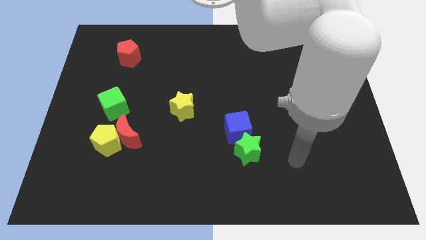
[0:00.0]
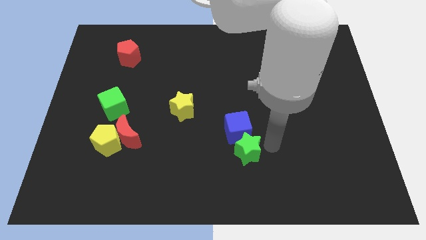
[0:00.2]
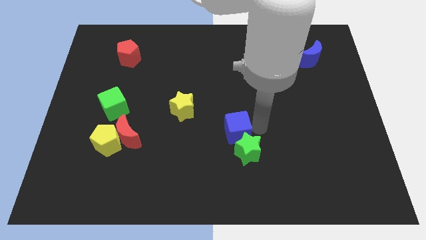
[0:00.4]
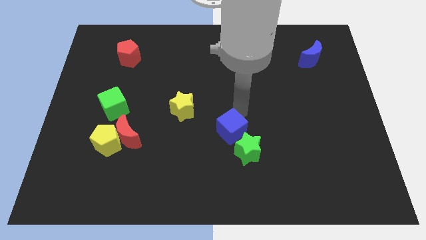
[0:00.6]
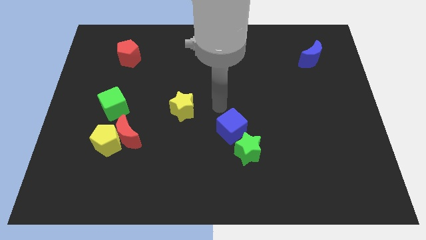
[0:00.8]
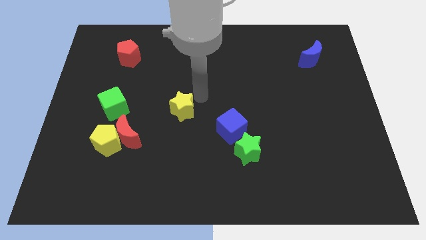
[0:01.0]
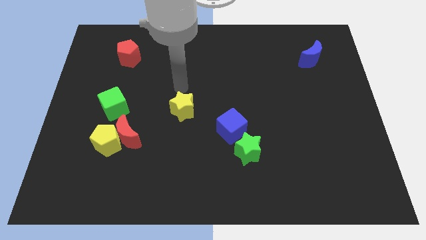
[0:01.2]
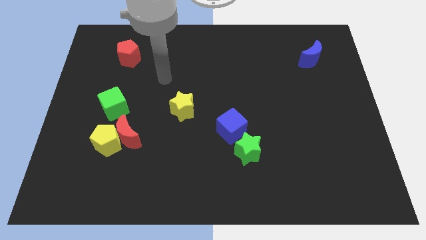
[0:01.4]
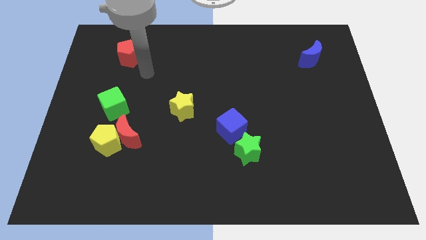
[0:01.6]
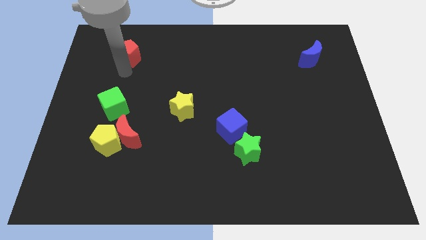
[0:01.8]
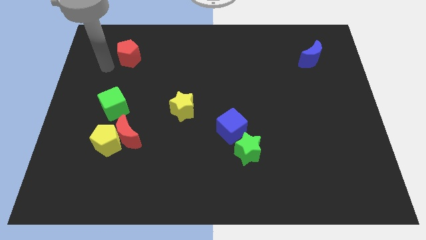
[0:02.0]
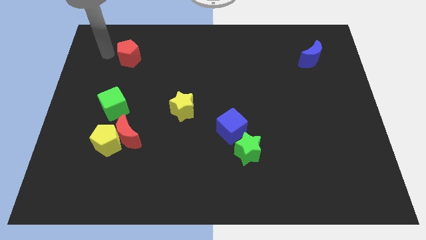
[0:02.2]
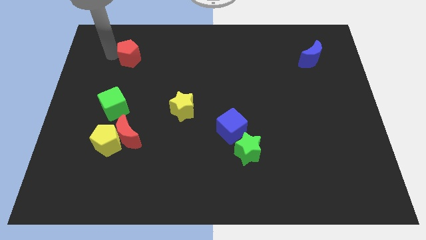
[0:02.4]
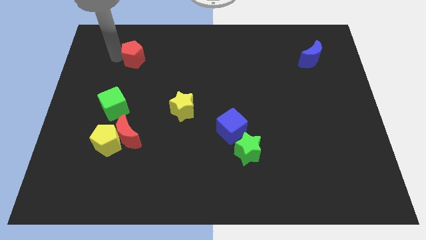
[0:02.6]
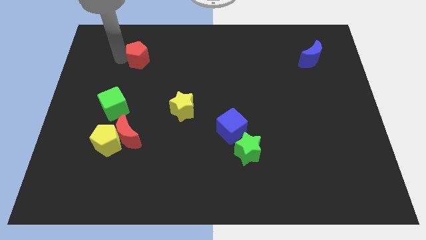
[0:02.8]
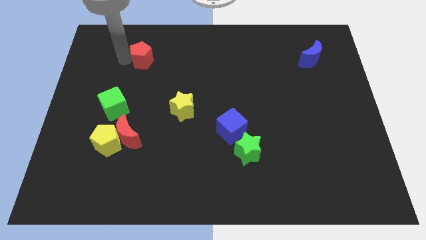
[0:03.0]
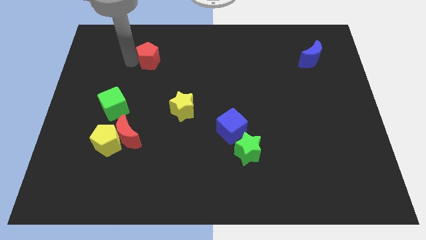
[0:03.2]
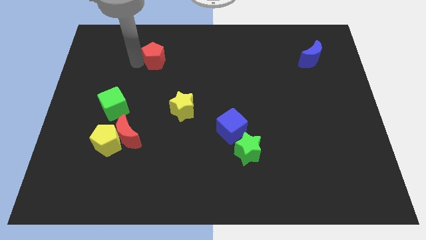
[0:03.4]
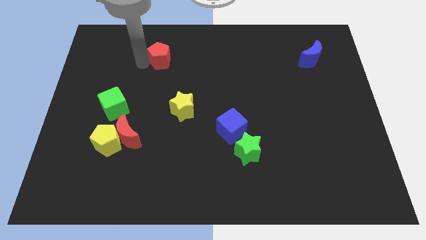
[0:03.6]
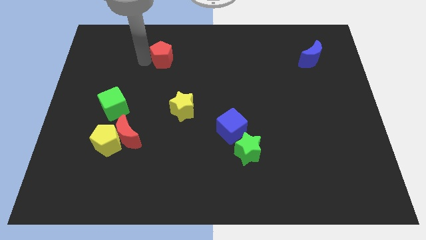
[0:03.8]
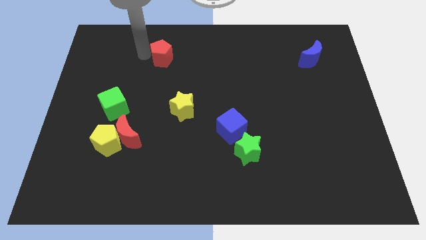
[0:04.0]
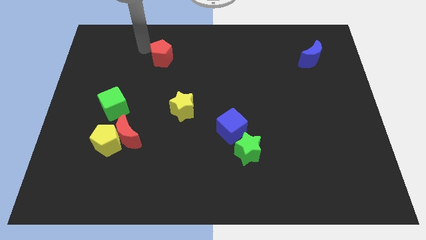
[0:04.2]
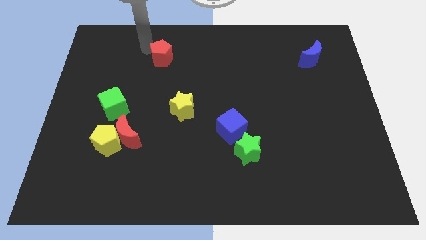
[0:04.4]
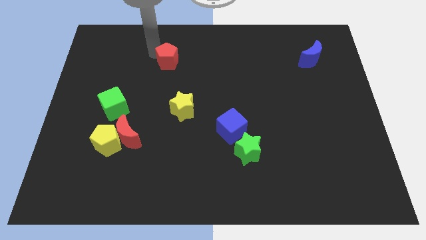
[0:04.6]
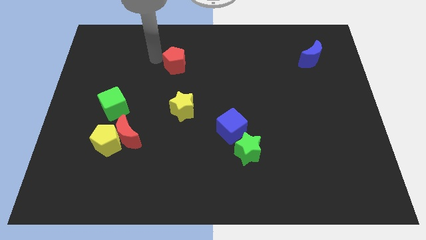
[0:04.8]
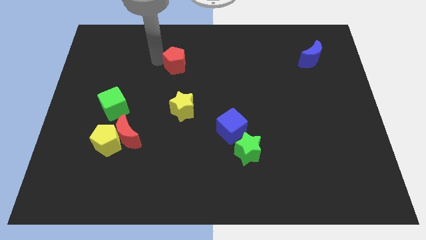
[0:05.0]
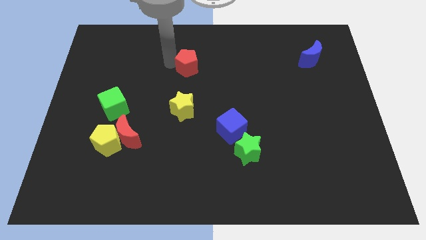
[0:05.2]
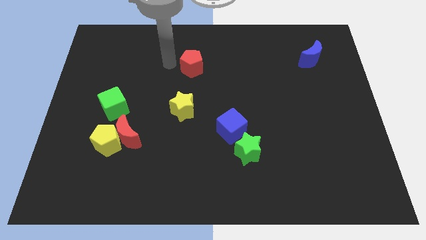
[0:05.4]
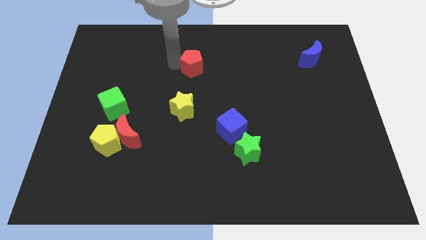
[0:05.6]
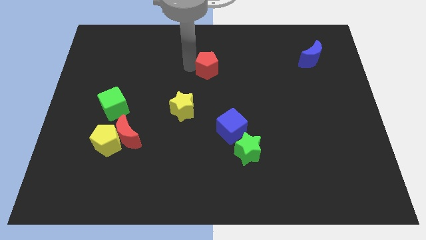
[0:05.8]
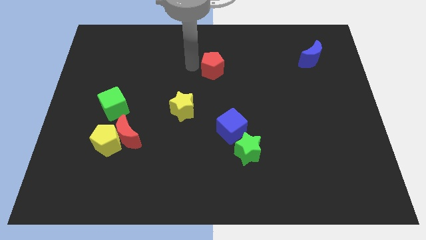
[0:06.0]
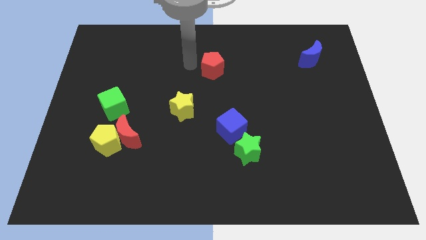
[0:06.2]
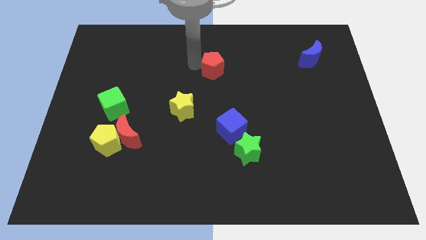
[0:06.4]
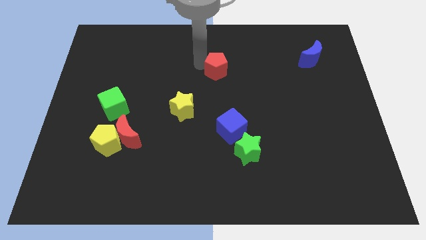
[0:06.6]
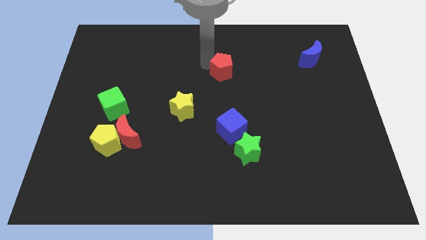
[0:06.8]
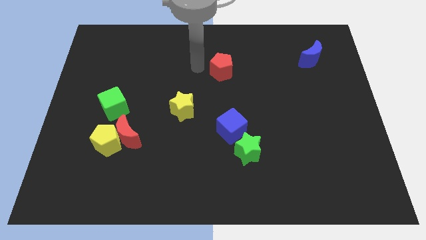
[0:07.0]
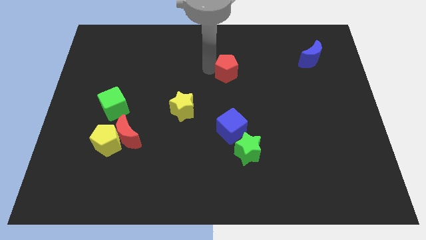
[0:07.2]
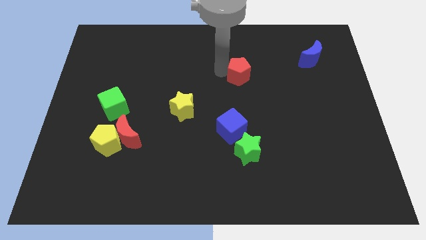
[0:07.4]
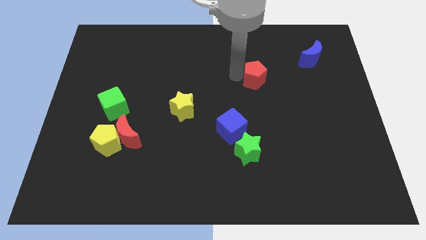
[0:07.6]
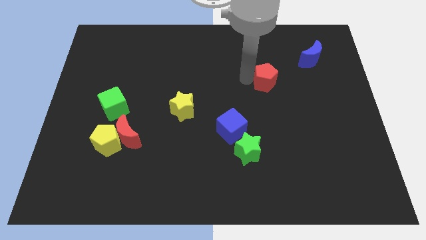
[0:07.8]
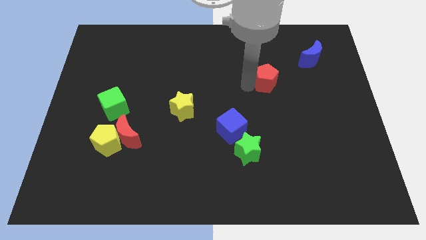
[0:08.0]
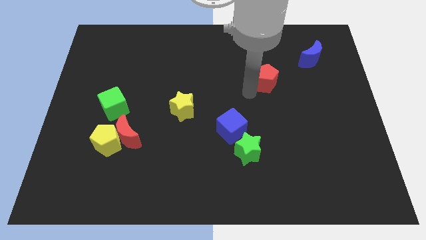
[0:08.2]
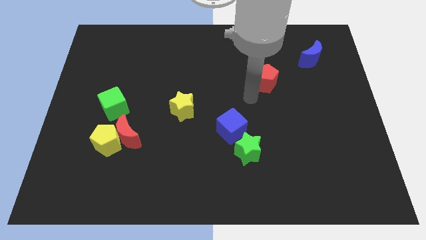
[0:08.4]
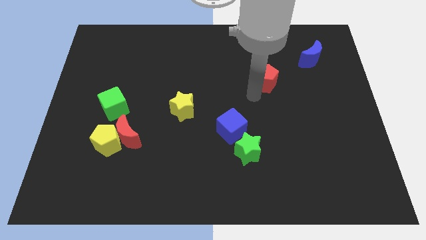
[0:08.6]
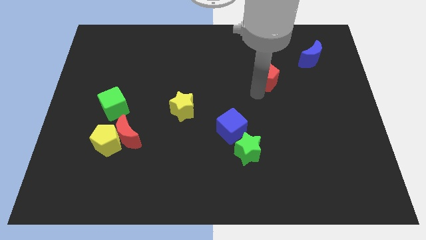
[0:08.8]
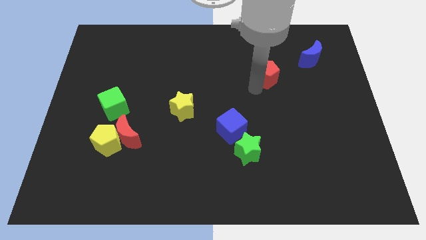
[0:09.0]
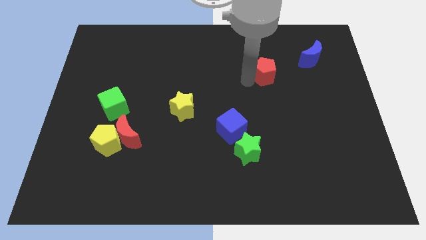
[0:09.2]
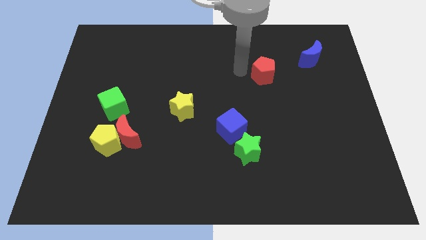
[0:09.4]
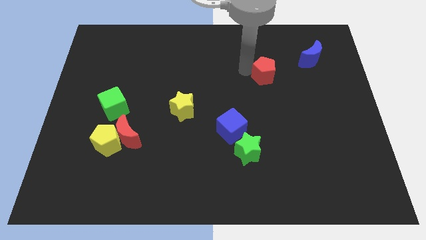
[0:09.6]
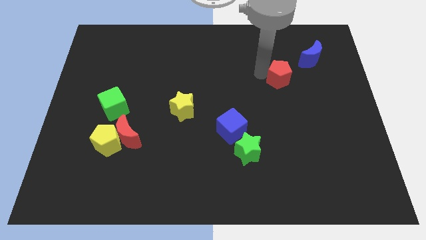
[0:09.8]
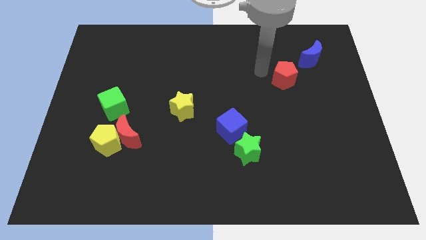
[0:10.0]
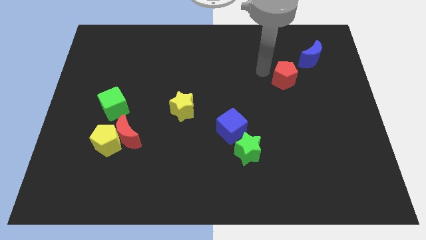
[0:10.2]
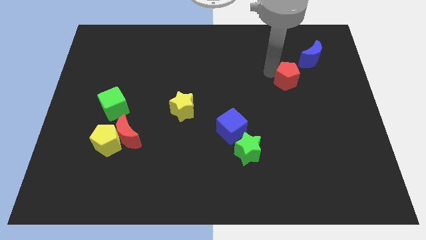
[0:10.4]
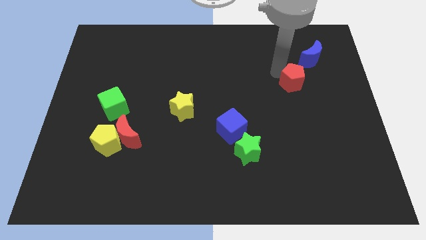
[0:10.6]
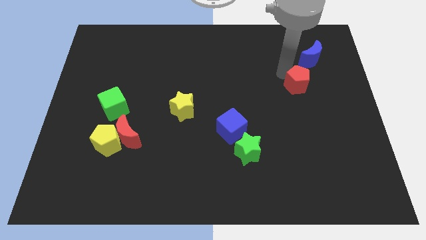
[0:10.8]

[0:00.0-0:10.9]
slide the red pentagon to the bottom side of the blue moon

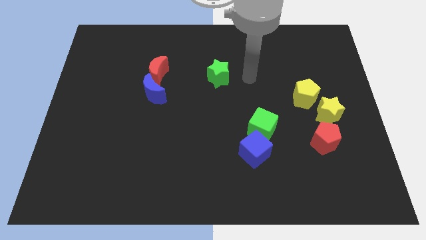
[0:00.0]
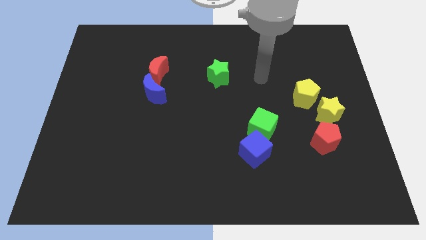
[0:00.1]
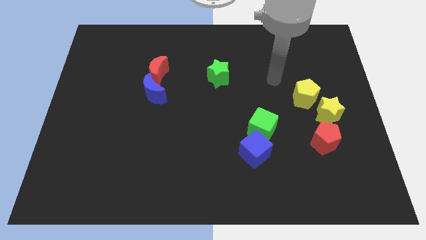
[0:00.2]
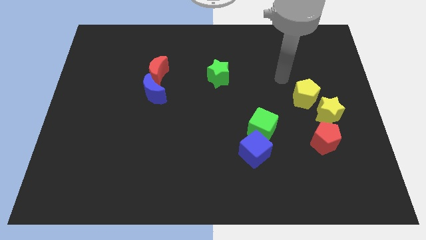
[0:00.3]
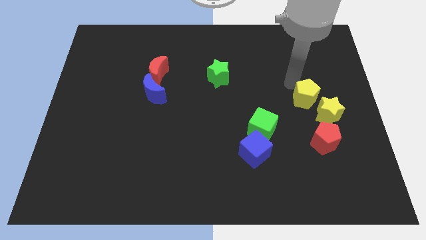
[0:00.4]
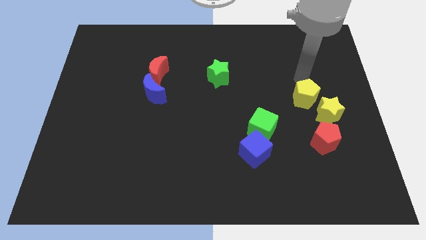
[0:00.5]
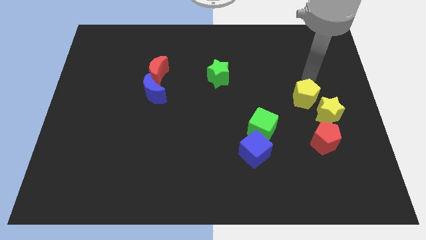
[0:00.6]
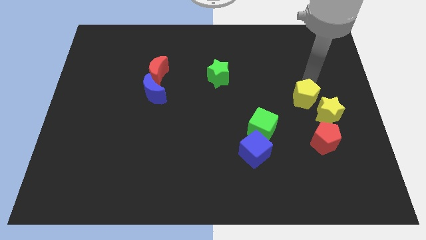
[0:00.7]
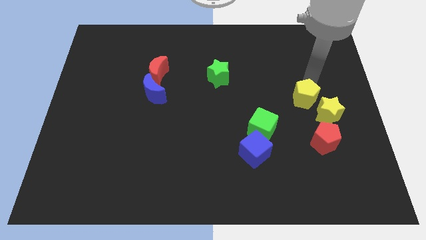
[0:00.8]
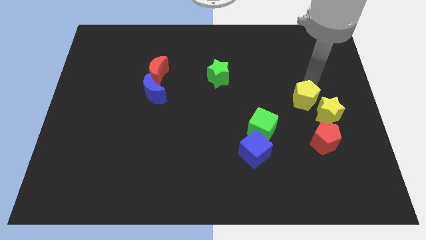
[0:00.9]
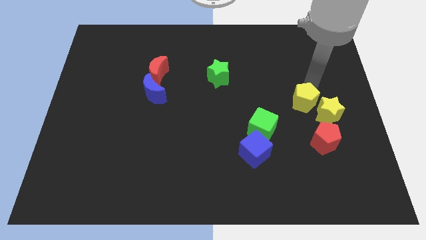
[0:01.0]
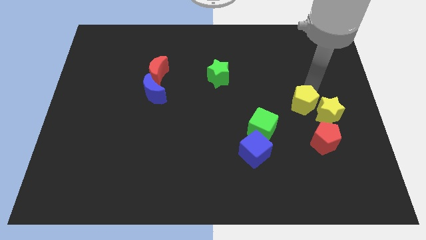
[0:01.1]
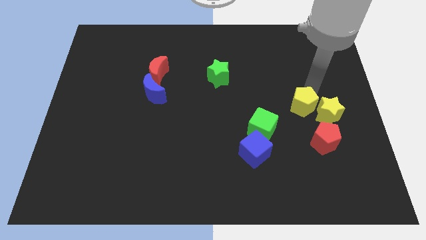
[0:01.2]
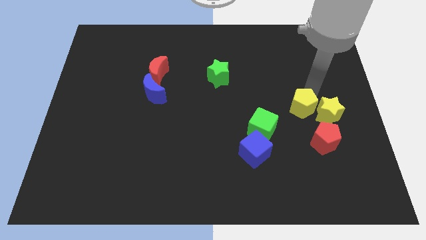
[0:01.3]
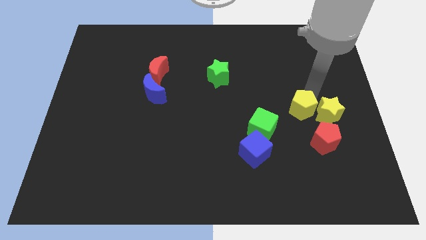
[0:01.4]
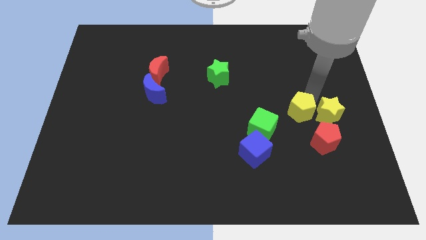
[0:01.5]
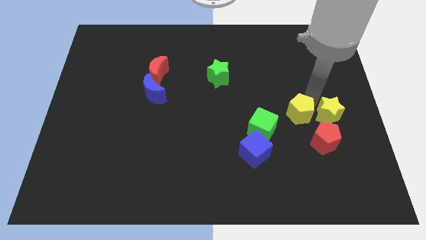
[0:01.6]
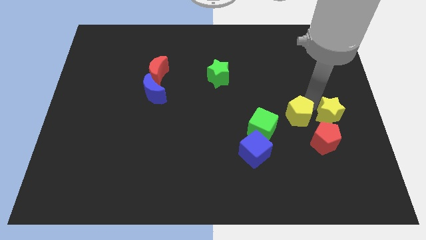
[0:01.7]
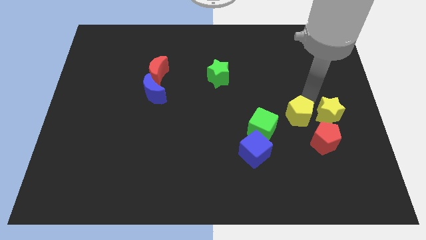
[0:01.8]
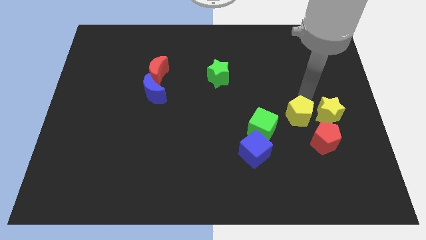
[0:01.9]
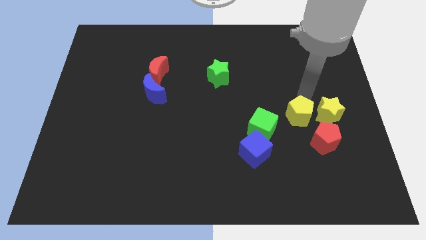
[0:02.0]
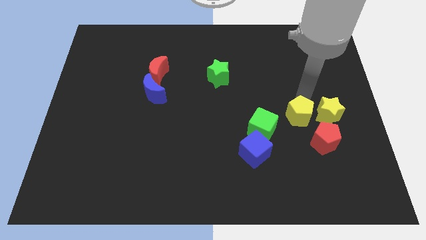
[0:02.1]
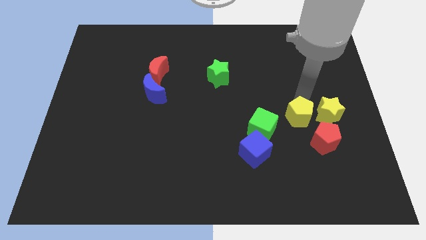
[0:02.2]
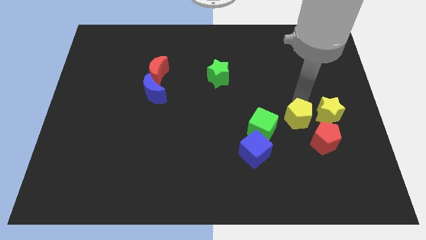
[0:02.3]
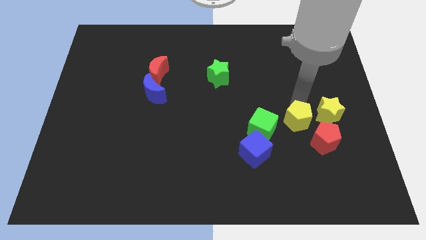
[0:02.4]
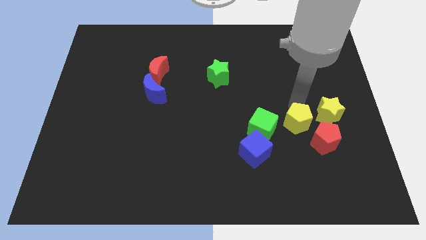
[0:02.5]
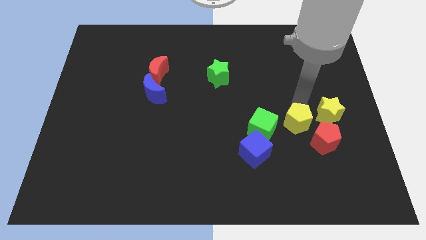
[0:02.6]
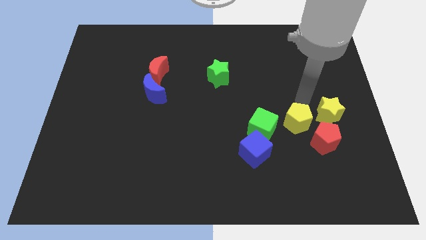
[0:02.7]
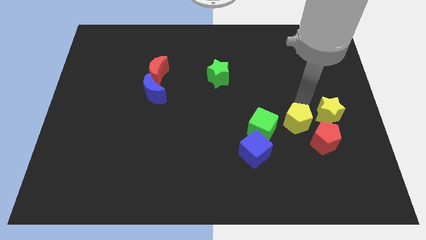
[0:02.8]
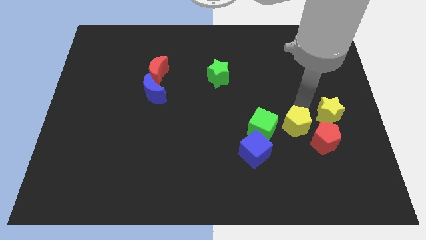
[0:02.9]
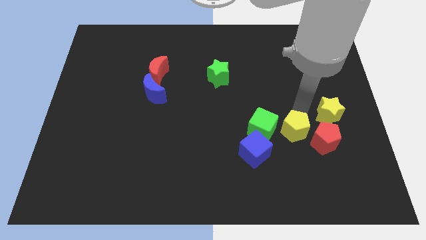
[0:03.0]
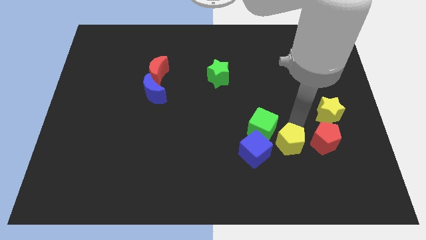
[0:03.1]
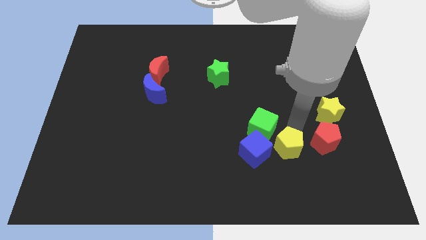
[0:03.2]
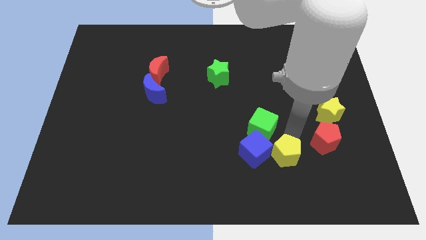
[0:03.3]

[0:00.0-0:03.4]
slide the yellow pentagon to the bottom right side of the blue cube
